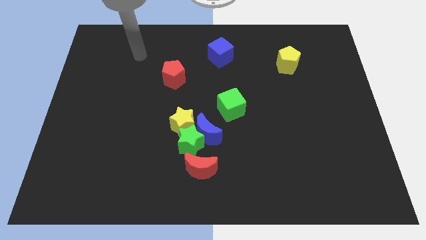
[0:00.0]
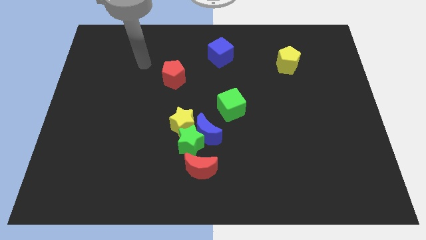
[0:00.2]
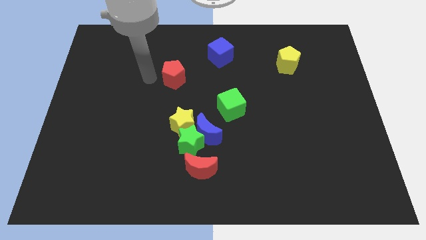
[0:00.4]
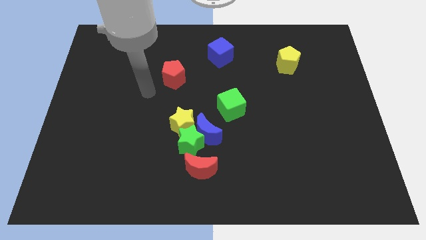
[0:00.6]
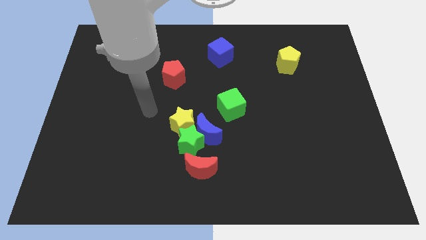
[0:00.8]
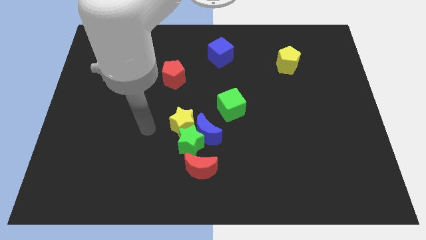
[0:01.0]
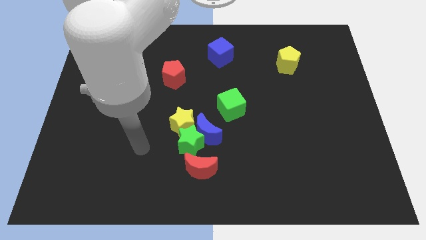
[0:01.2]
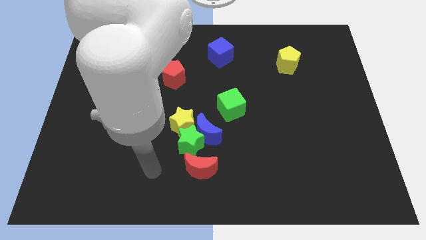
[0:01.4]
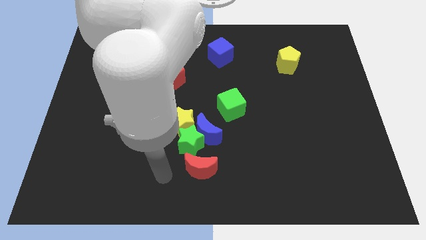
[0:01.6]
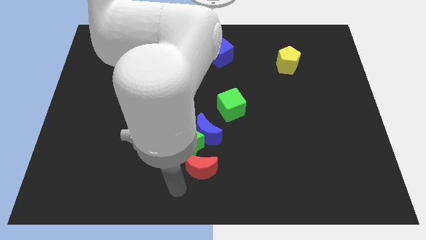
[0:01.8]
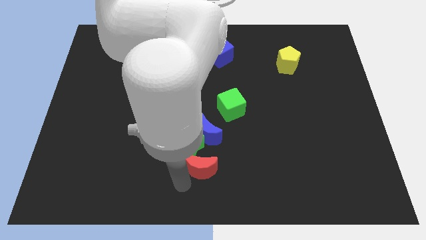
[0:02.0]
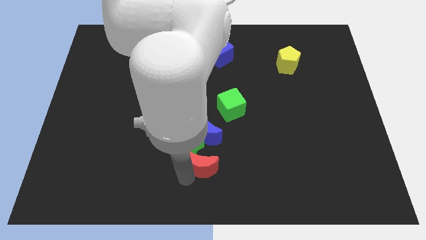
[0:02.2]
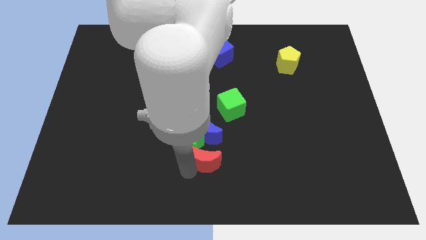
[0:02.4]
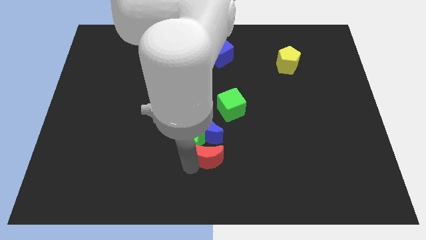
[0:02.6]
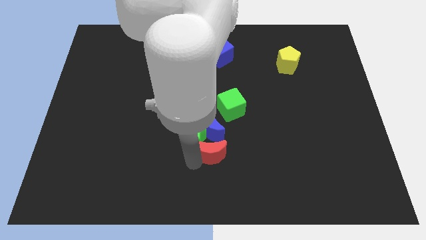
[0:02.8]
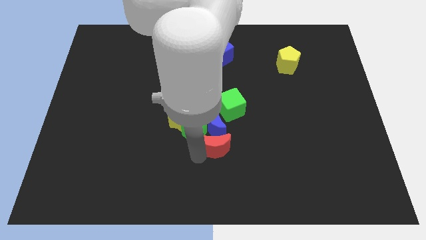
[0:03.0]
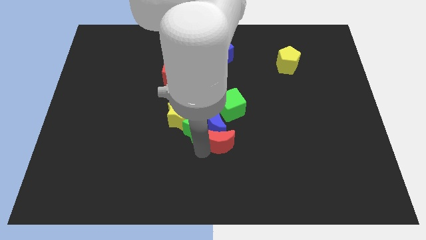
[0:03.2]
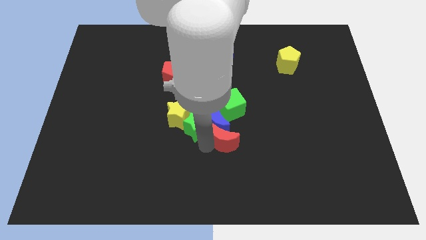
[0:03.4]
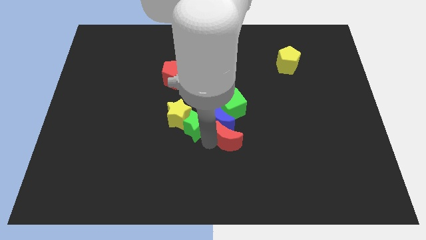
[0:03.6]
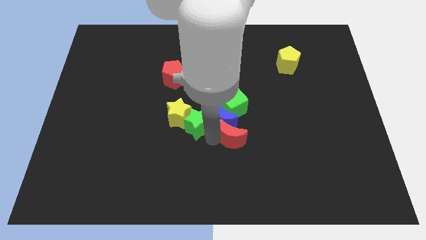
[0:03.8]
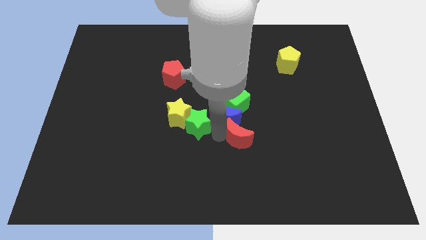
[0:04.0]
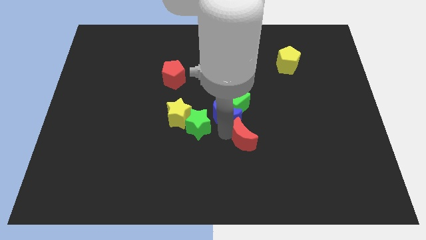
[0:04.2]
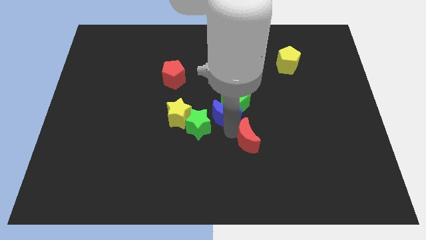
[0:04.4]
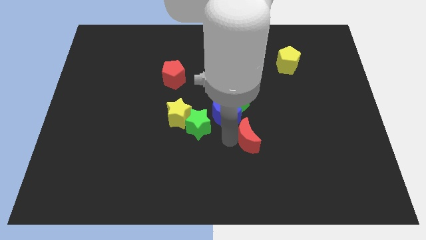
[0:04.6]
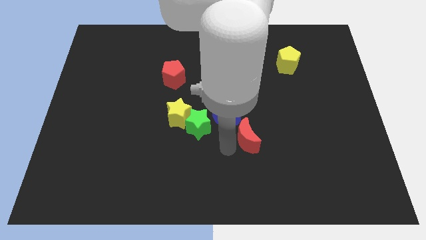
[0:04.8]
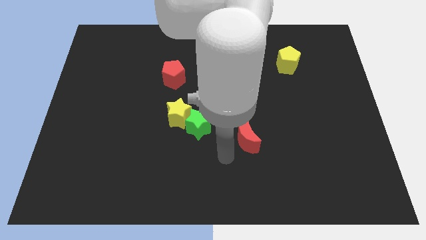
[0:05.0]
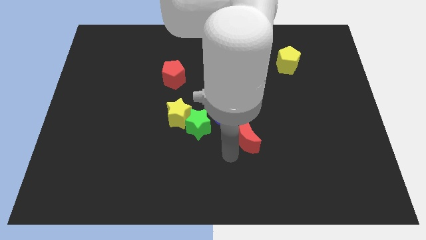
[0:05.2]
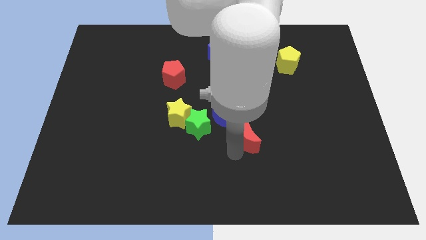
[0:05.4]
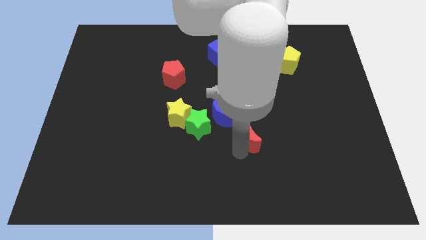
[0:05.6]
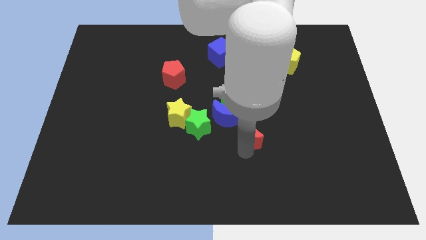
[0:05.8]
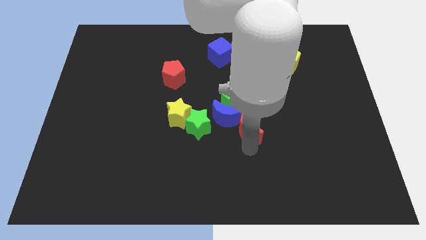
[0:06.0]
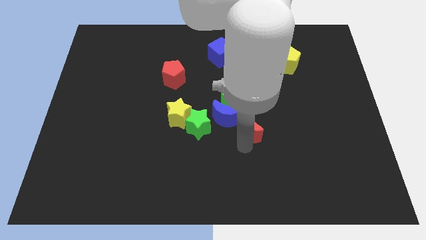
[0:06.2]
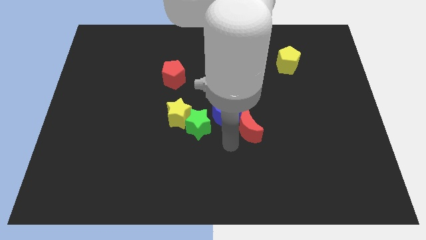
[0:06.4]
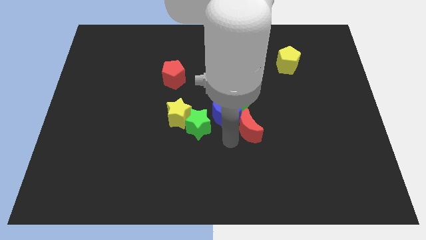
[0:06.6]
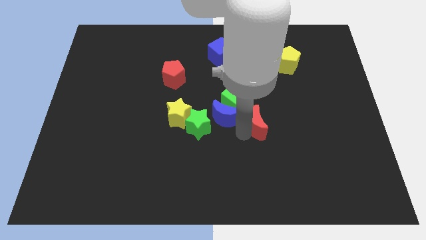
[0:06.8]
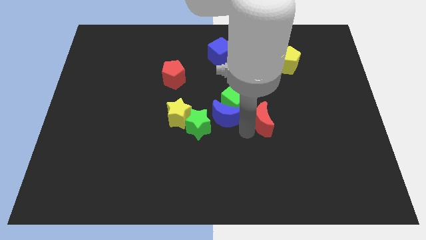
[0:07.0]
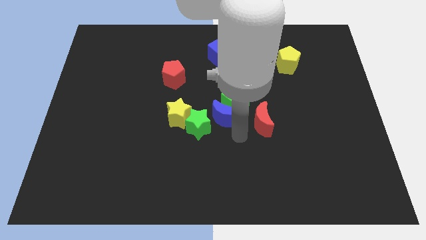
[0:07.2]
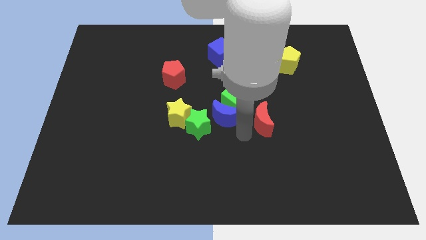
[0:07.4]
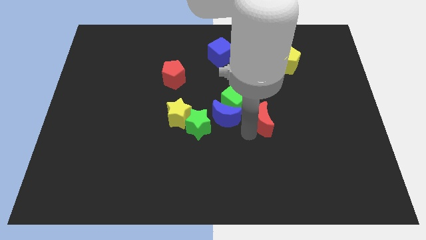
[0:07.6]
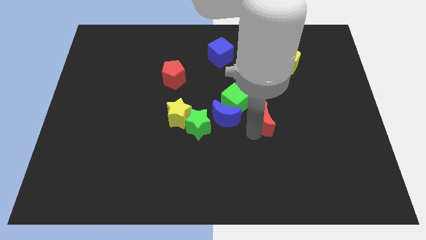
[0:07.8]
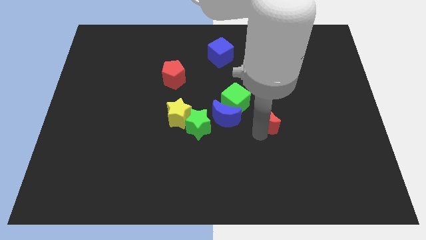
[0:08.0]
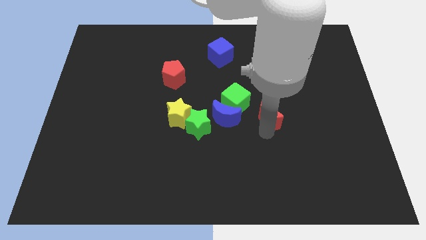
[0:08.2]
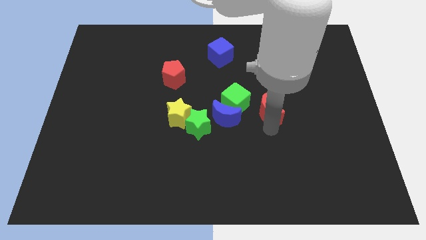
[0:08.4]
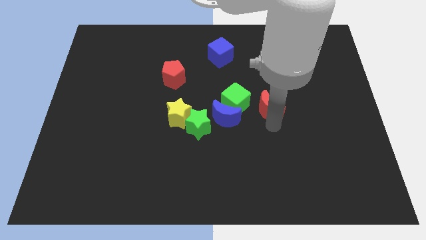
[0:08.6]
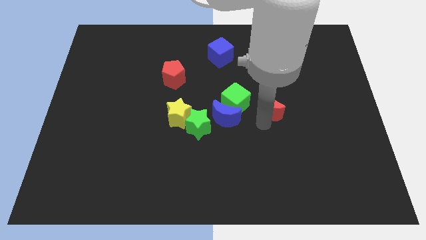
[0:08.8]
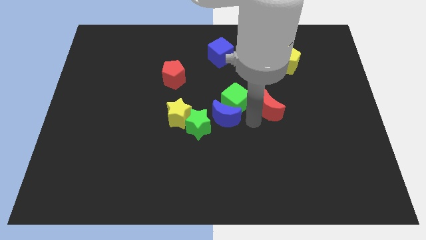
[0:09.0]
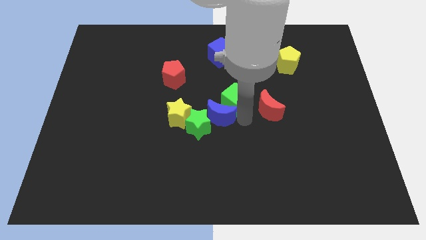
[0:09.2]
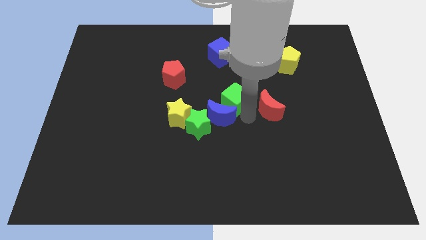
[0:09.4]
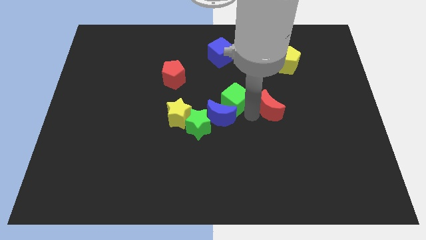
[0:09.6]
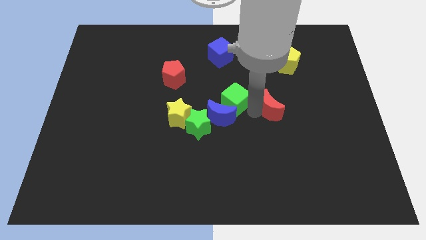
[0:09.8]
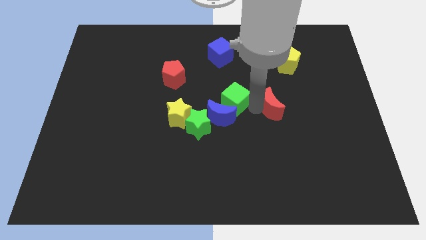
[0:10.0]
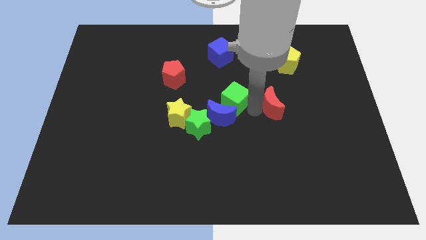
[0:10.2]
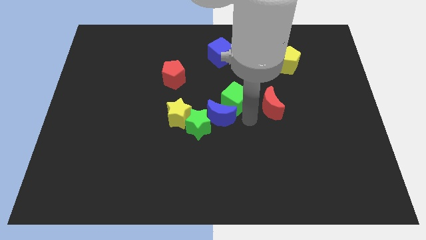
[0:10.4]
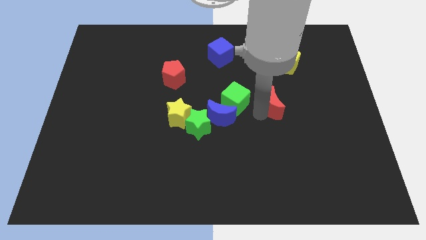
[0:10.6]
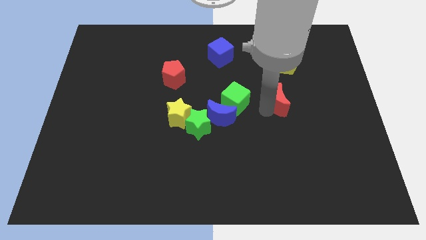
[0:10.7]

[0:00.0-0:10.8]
move the red moon to the bottom side of the yellow pentagon

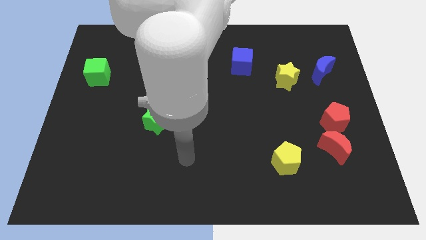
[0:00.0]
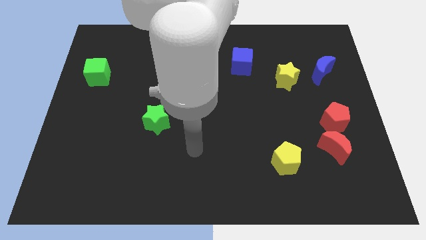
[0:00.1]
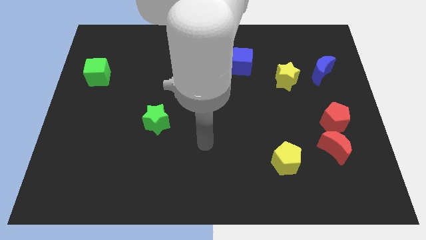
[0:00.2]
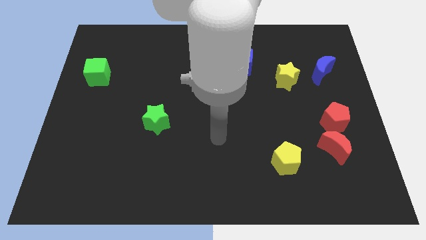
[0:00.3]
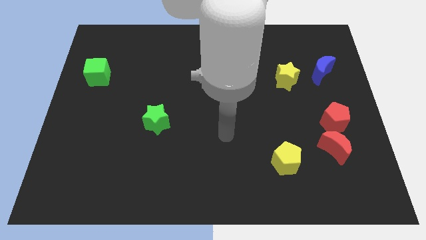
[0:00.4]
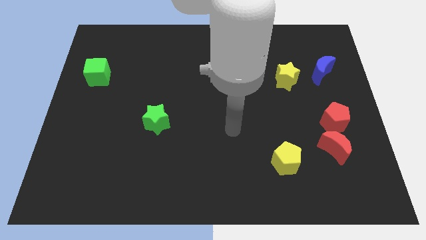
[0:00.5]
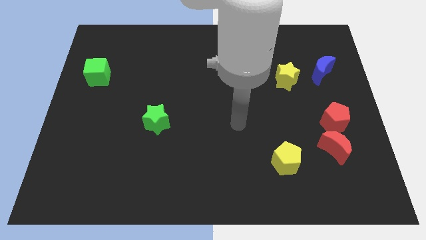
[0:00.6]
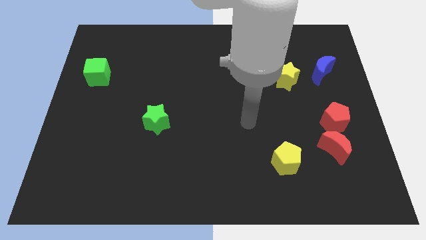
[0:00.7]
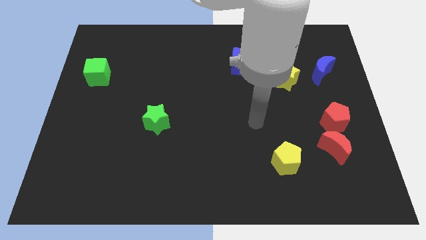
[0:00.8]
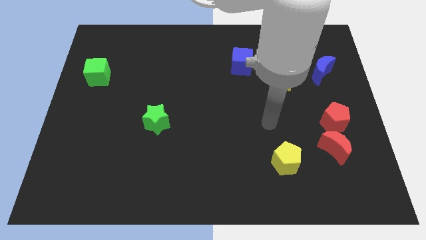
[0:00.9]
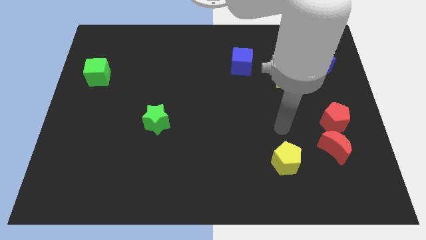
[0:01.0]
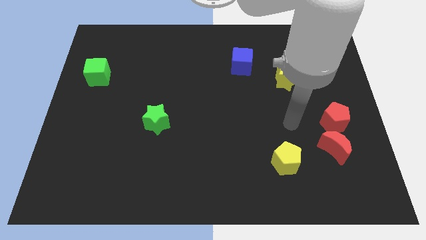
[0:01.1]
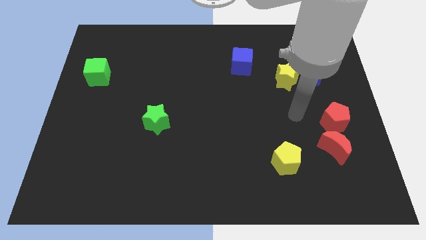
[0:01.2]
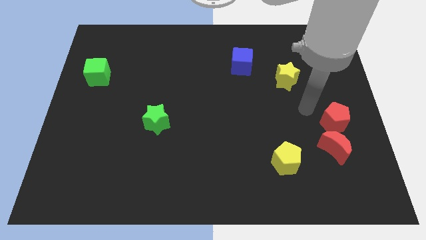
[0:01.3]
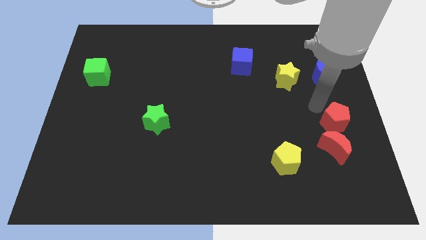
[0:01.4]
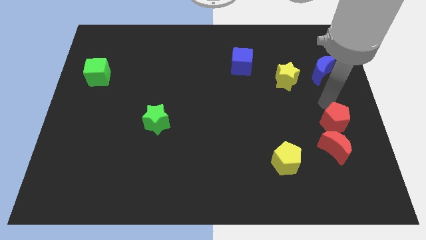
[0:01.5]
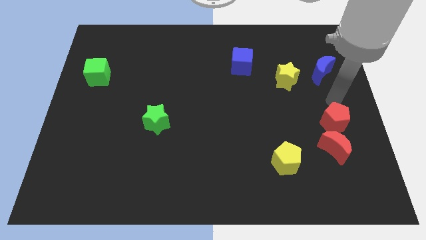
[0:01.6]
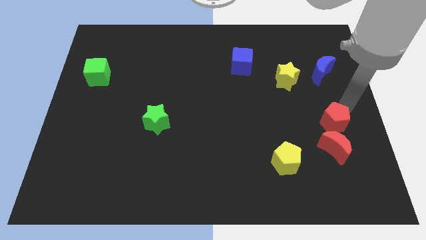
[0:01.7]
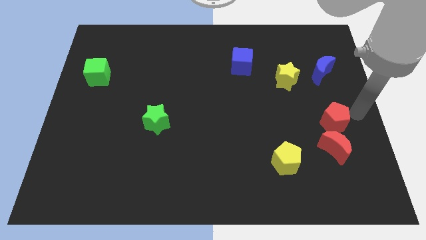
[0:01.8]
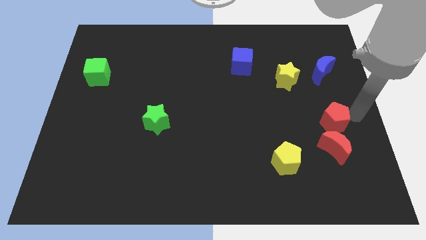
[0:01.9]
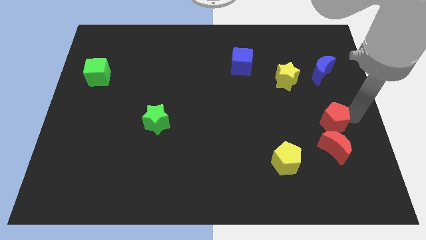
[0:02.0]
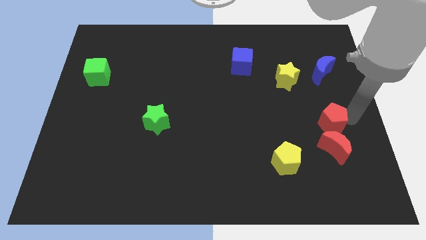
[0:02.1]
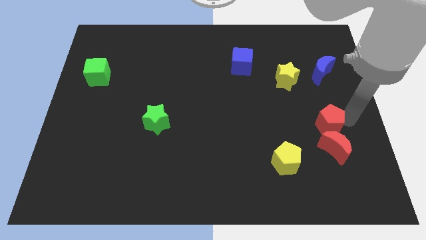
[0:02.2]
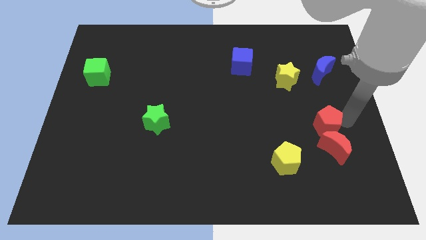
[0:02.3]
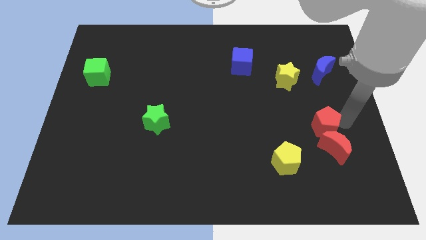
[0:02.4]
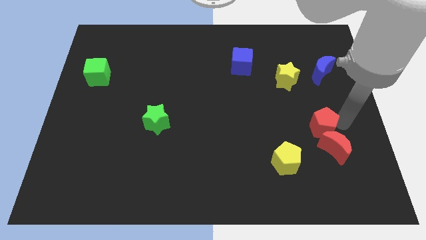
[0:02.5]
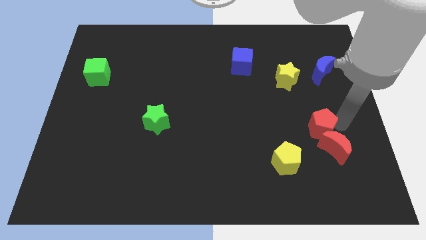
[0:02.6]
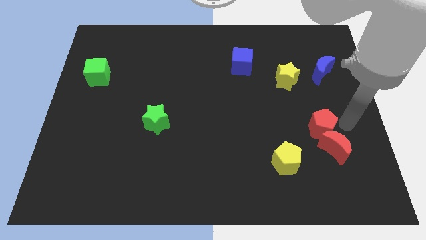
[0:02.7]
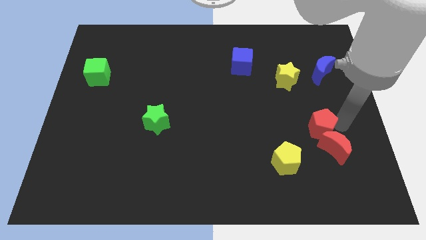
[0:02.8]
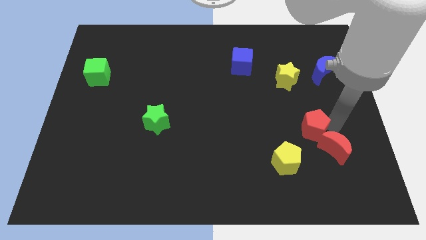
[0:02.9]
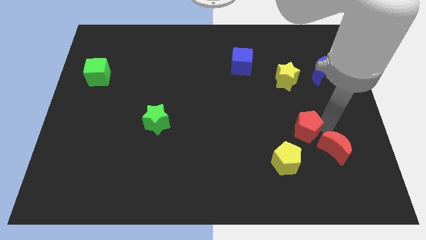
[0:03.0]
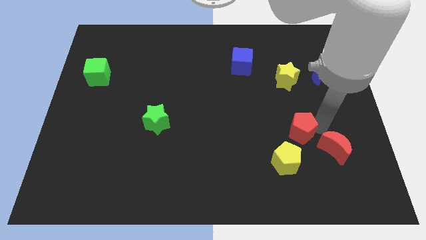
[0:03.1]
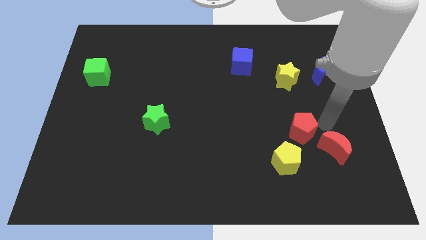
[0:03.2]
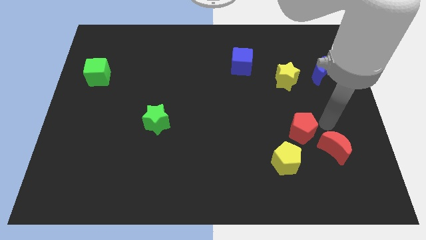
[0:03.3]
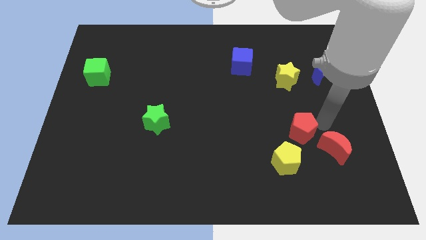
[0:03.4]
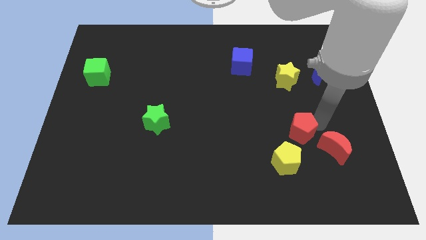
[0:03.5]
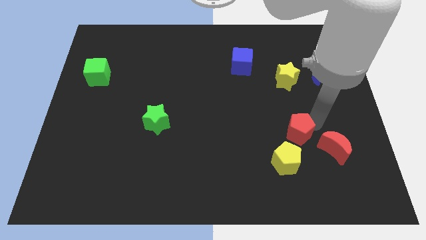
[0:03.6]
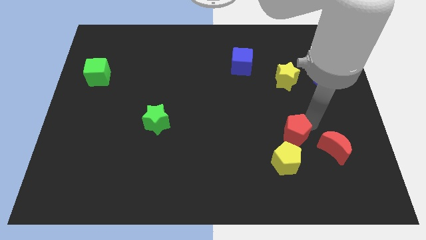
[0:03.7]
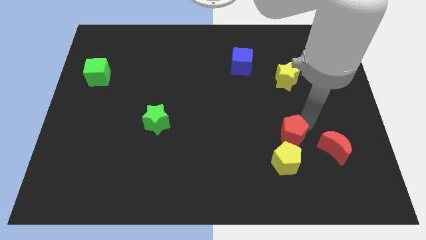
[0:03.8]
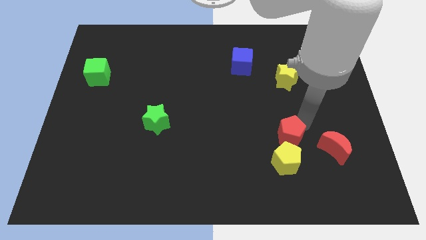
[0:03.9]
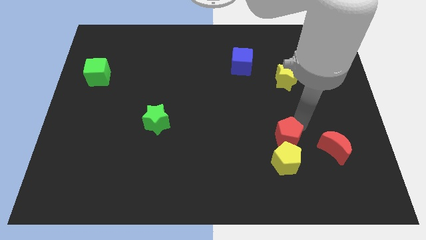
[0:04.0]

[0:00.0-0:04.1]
move the red pentagon diagonally up and to the left of the yellow pentagon
